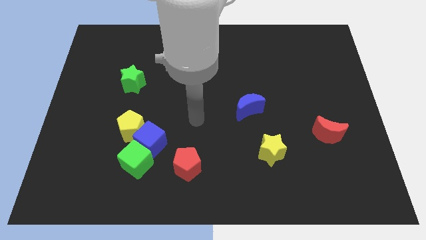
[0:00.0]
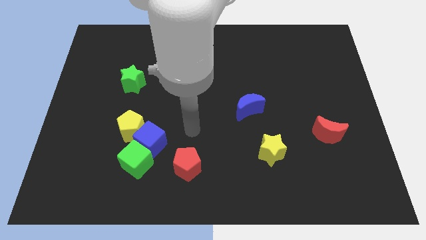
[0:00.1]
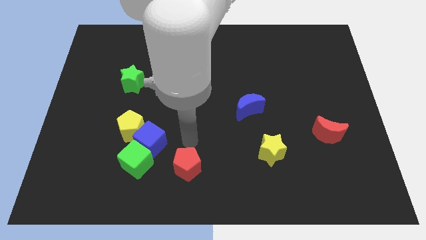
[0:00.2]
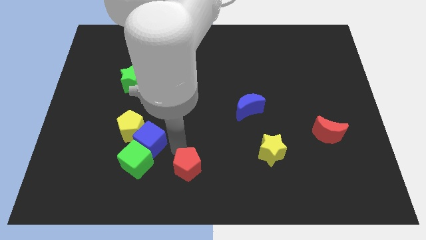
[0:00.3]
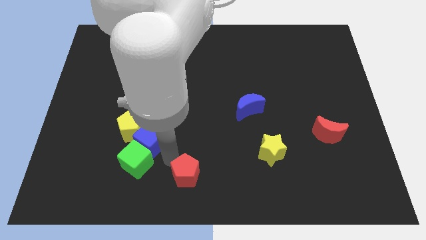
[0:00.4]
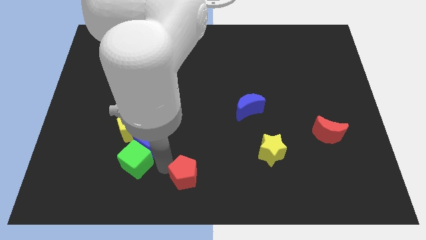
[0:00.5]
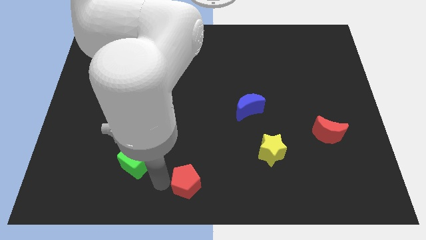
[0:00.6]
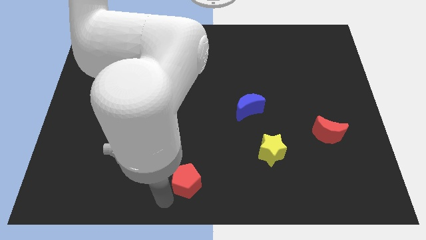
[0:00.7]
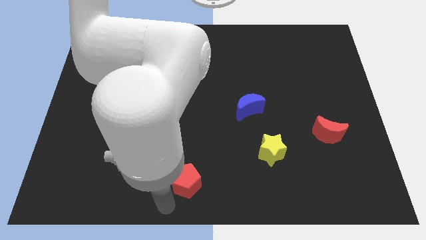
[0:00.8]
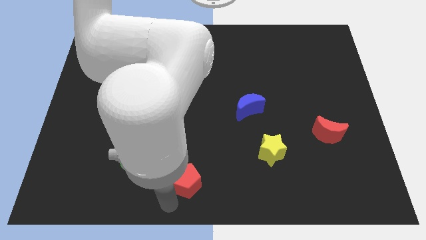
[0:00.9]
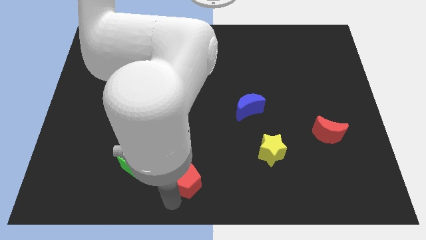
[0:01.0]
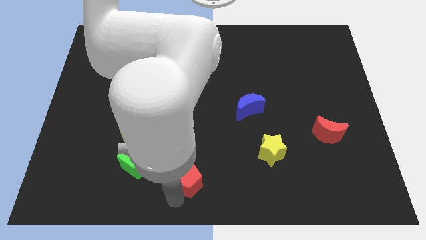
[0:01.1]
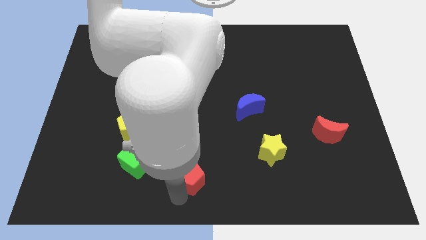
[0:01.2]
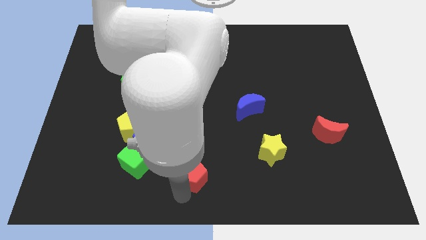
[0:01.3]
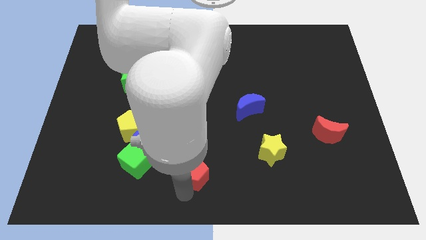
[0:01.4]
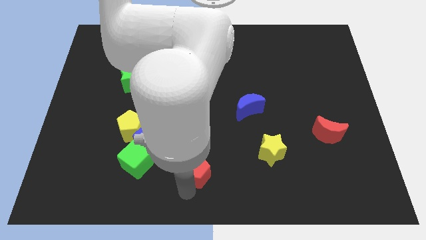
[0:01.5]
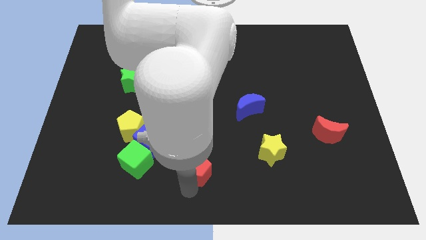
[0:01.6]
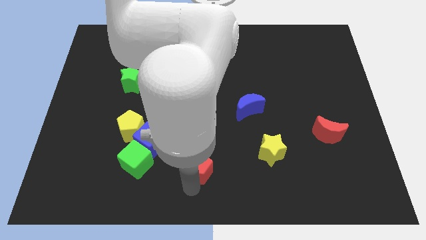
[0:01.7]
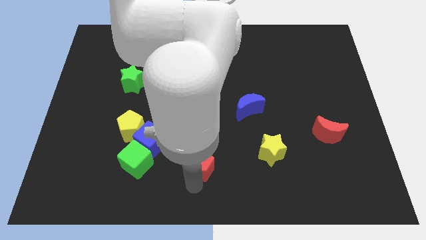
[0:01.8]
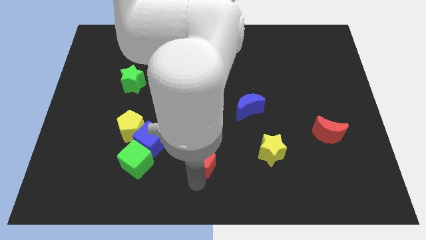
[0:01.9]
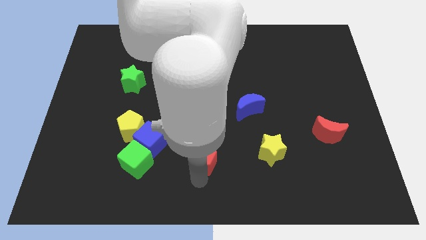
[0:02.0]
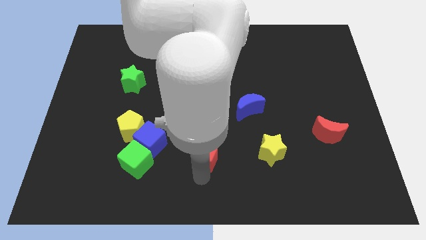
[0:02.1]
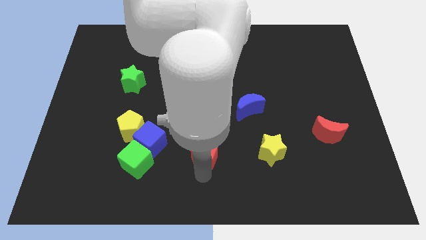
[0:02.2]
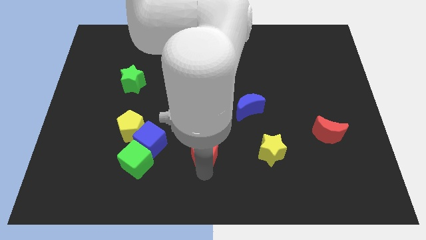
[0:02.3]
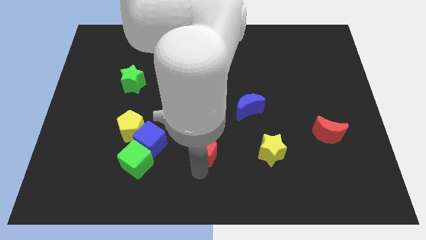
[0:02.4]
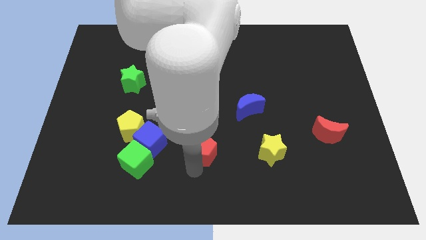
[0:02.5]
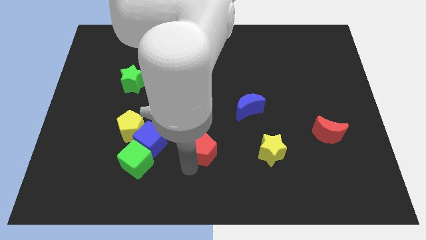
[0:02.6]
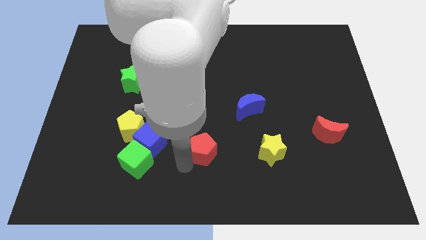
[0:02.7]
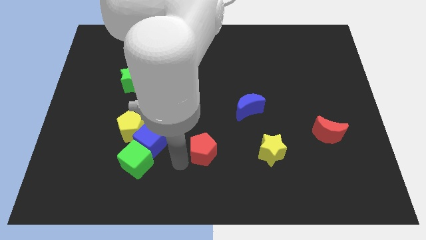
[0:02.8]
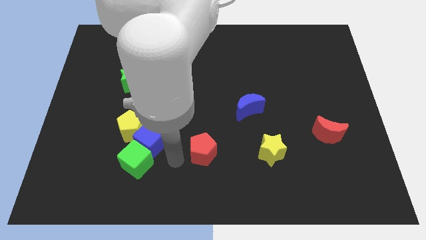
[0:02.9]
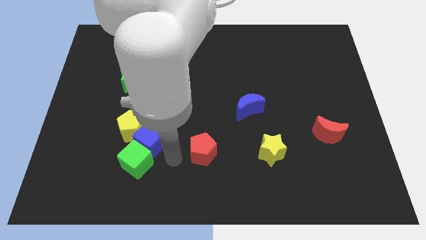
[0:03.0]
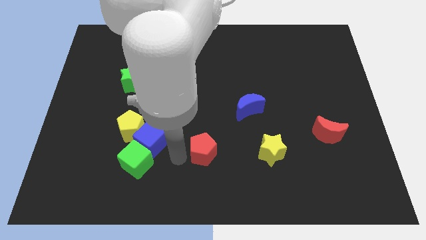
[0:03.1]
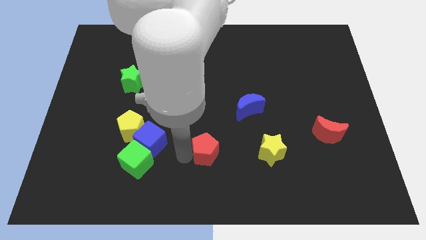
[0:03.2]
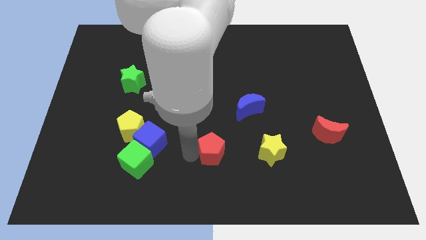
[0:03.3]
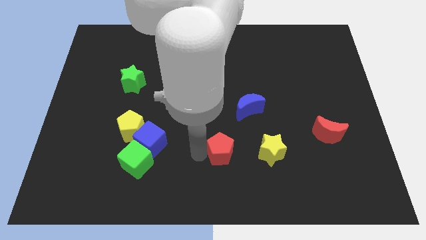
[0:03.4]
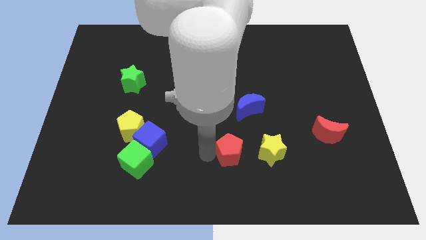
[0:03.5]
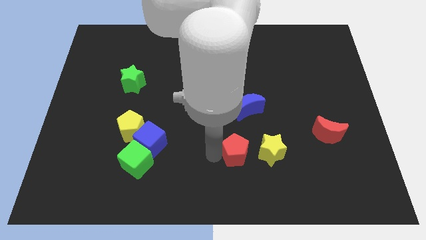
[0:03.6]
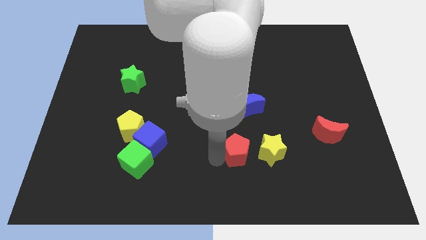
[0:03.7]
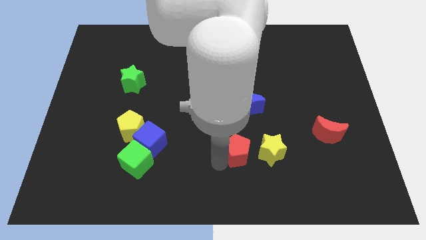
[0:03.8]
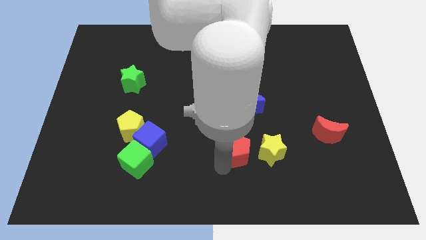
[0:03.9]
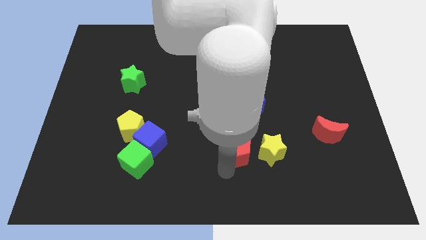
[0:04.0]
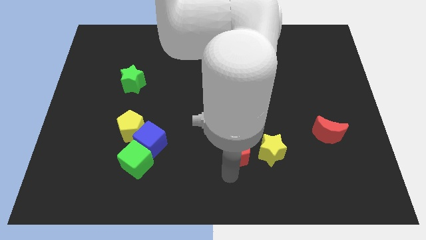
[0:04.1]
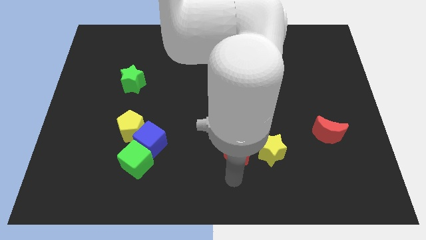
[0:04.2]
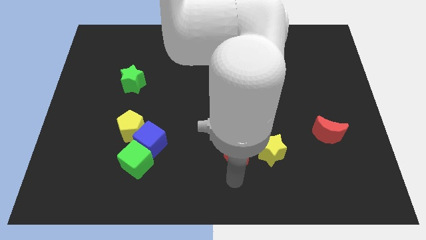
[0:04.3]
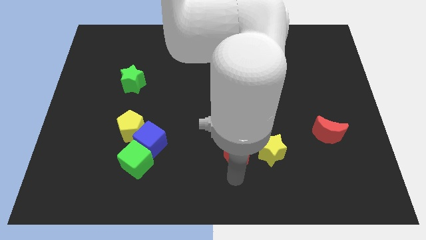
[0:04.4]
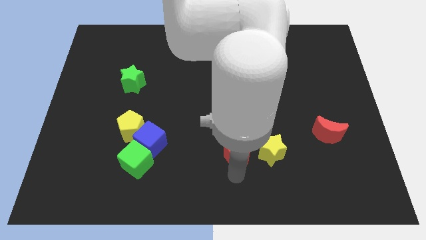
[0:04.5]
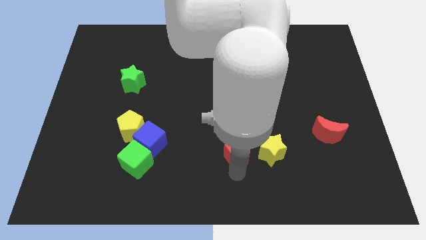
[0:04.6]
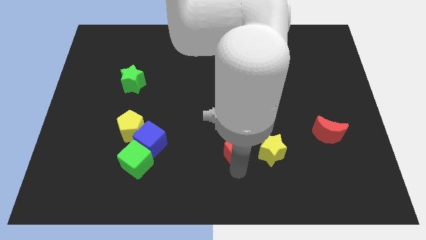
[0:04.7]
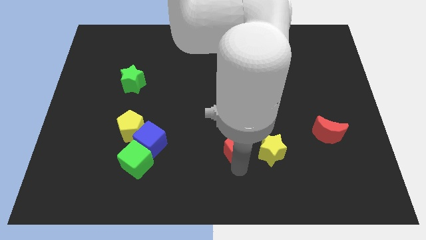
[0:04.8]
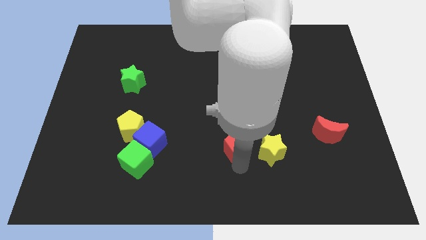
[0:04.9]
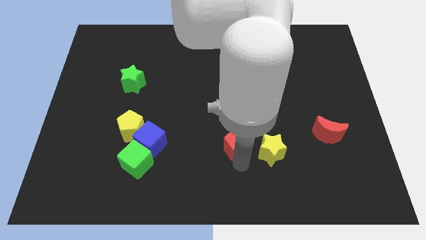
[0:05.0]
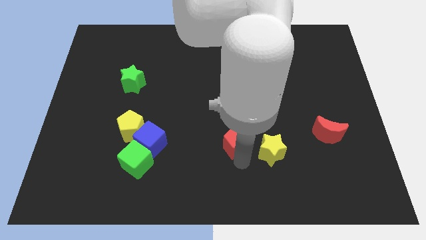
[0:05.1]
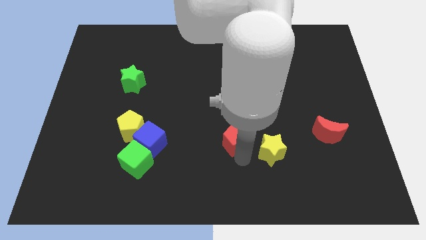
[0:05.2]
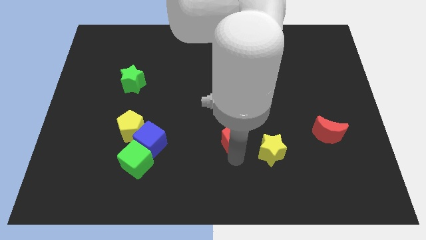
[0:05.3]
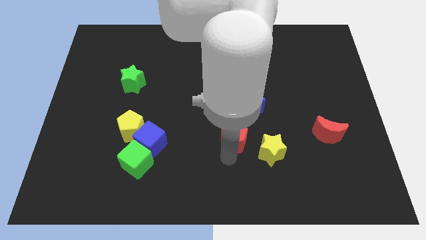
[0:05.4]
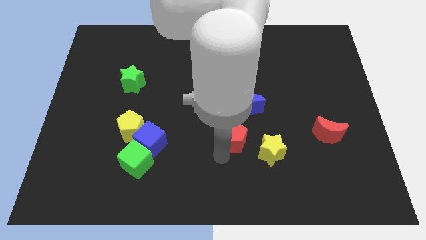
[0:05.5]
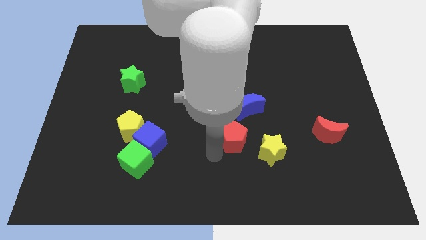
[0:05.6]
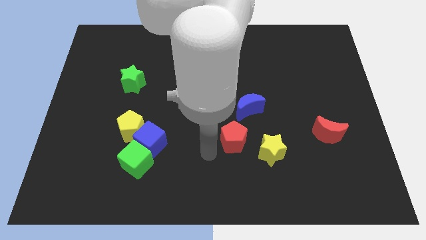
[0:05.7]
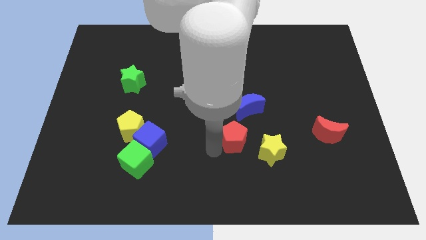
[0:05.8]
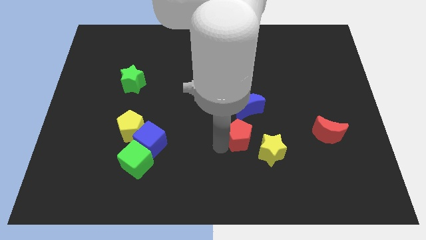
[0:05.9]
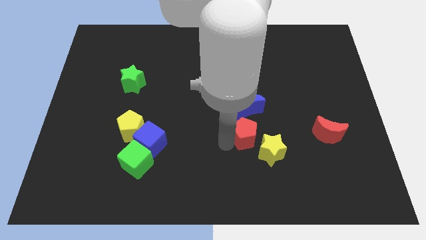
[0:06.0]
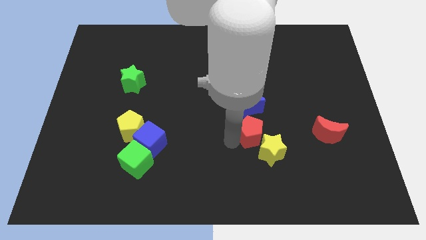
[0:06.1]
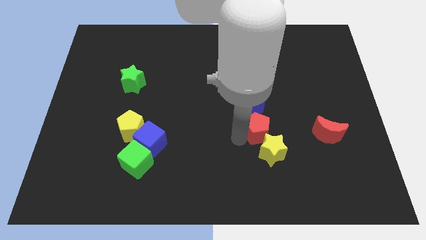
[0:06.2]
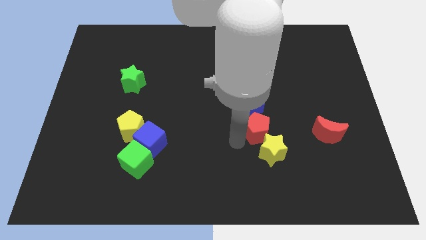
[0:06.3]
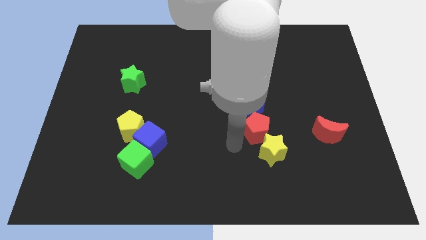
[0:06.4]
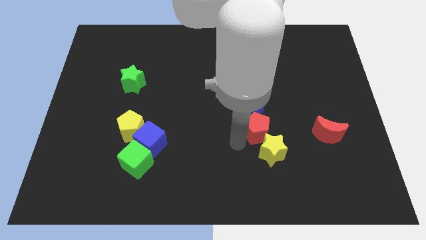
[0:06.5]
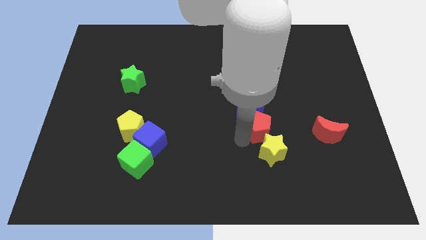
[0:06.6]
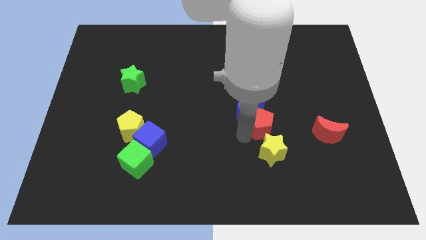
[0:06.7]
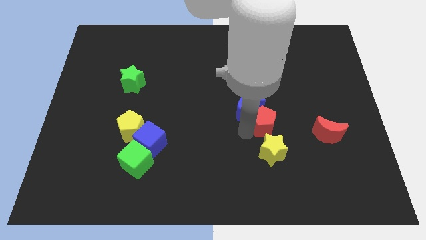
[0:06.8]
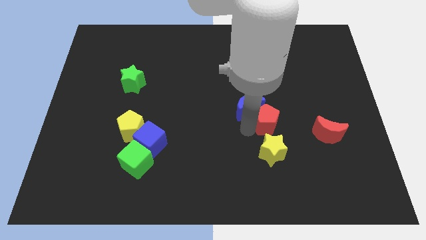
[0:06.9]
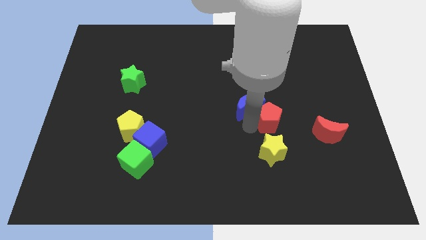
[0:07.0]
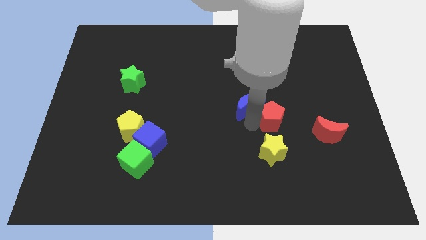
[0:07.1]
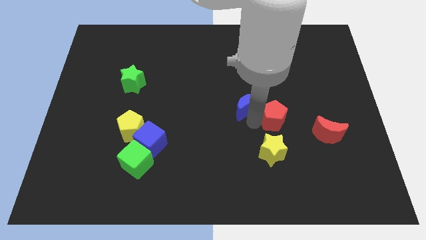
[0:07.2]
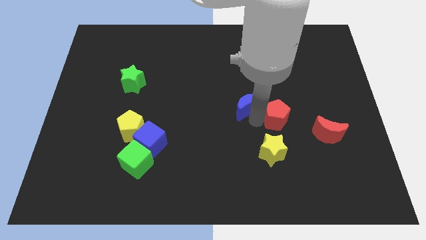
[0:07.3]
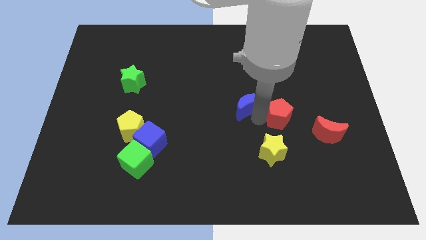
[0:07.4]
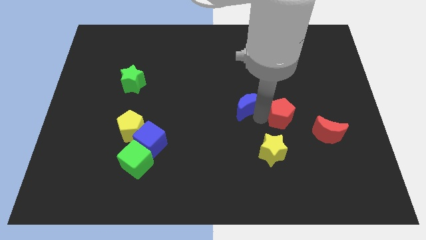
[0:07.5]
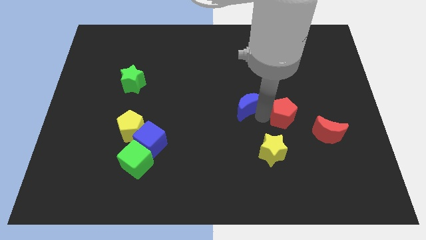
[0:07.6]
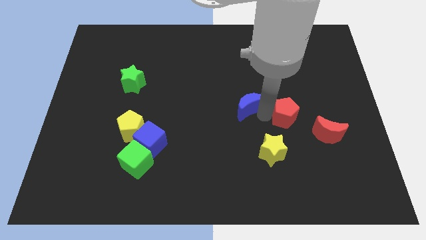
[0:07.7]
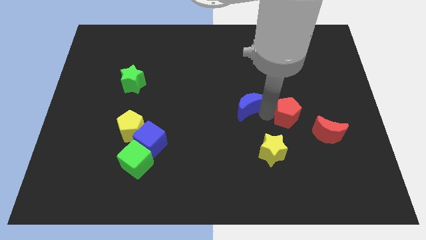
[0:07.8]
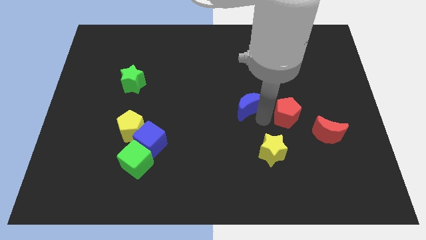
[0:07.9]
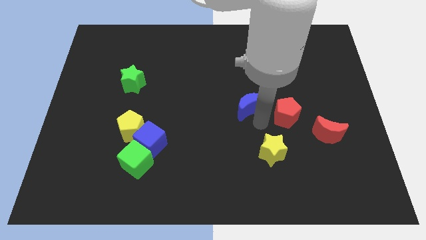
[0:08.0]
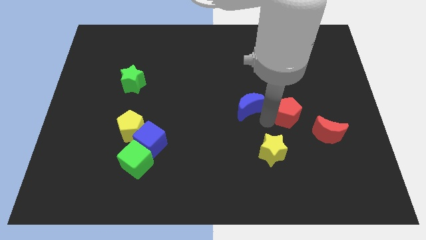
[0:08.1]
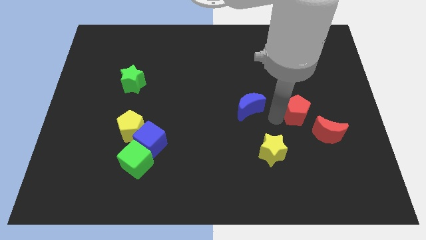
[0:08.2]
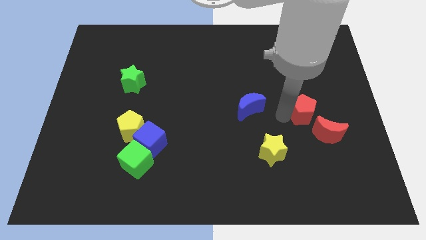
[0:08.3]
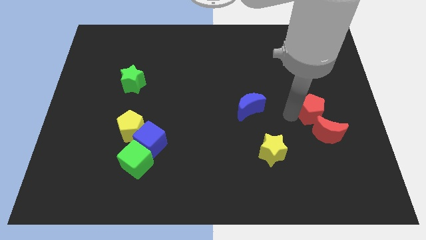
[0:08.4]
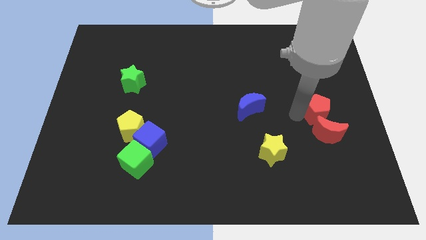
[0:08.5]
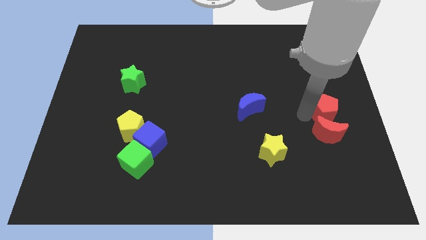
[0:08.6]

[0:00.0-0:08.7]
put the red pentagon to the center right
